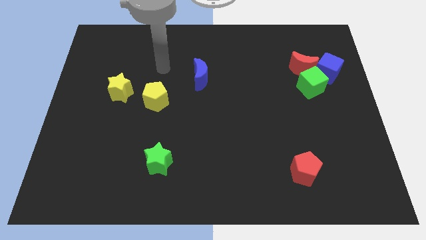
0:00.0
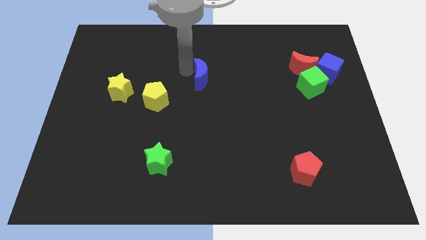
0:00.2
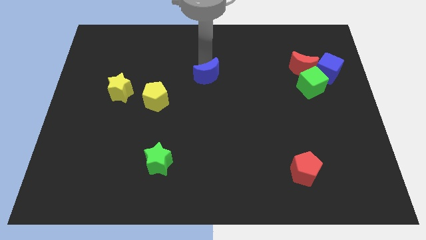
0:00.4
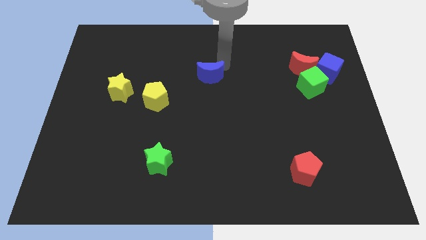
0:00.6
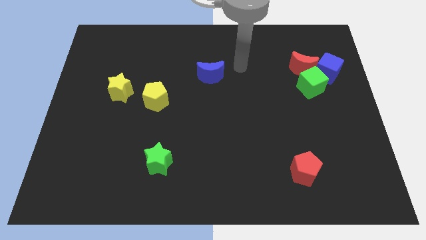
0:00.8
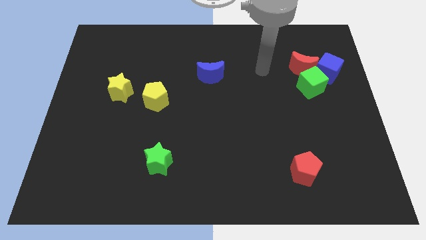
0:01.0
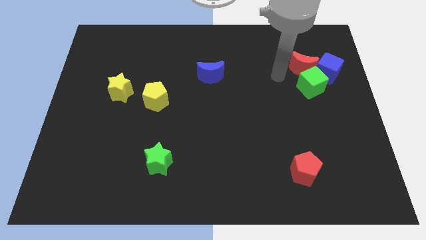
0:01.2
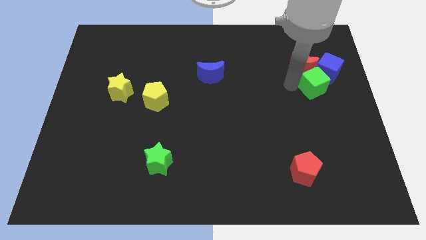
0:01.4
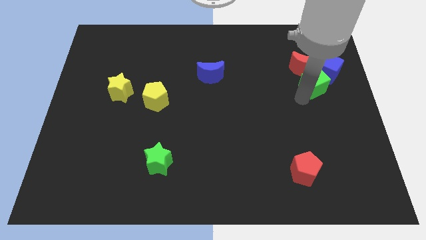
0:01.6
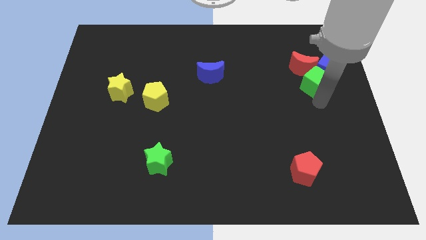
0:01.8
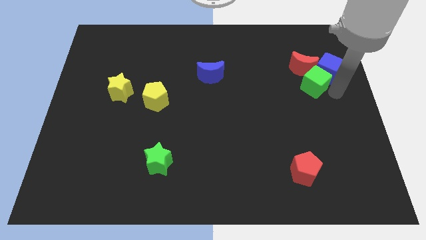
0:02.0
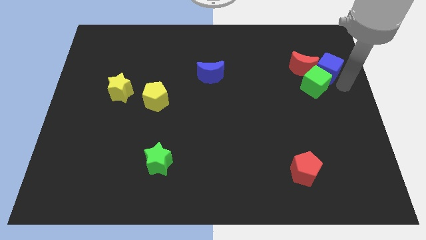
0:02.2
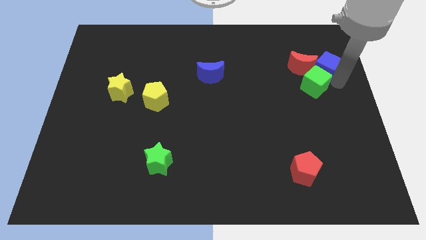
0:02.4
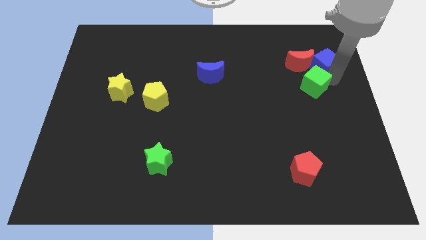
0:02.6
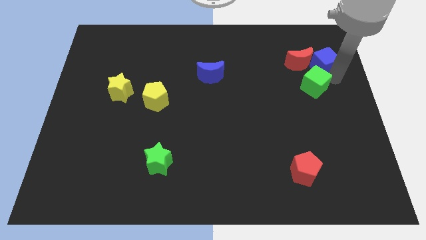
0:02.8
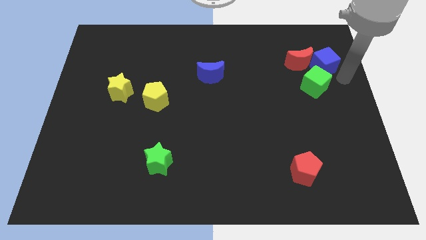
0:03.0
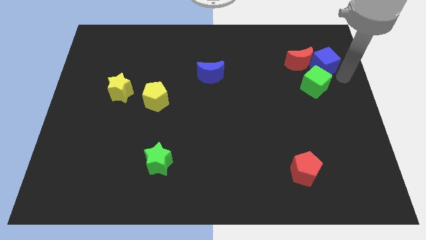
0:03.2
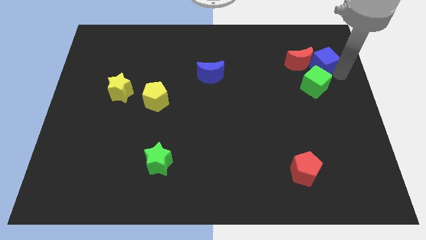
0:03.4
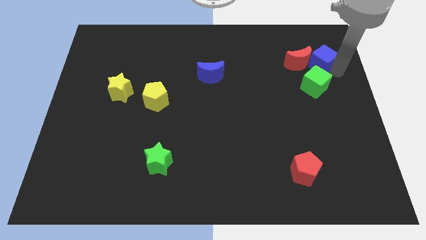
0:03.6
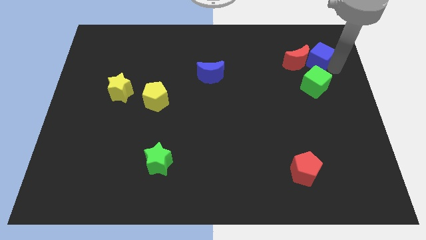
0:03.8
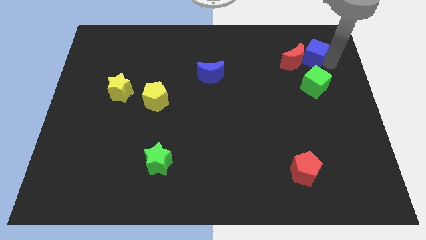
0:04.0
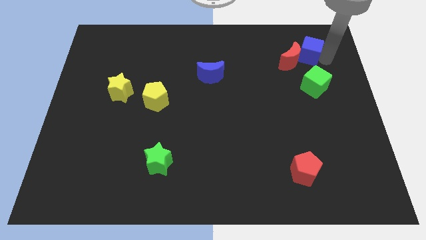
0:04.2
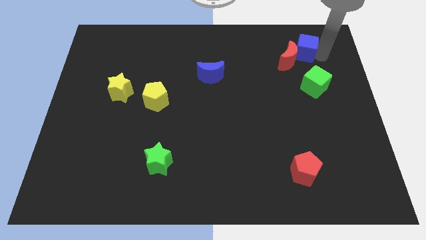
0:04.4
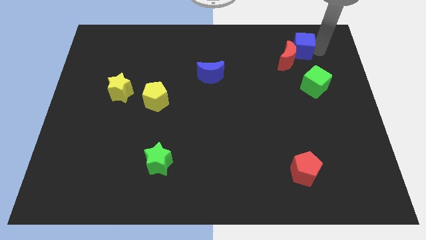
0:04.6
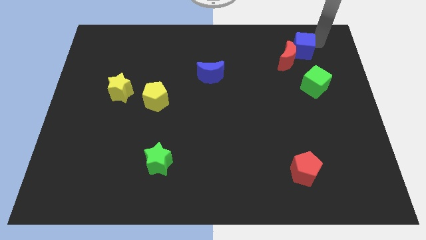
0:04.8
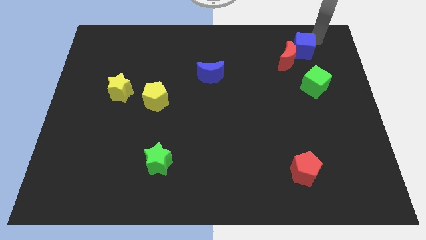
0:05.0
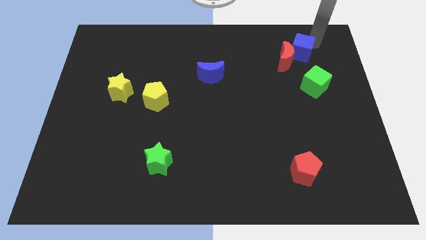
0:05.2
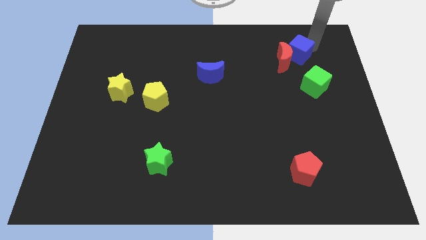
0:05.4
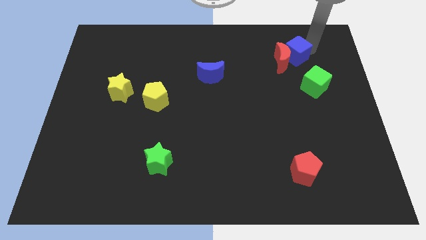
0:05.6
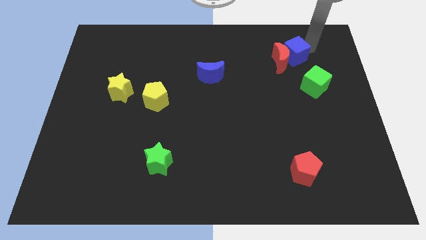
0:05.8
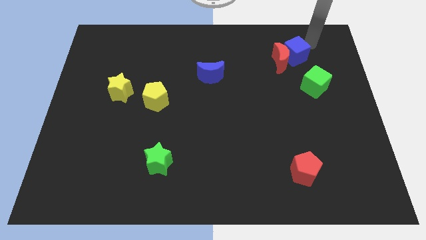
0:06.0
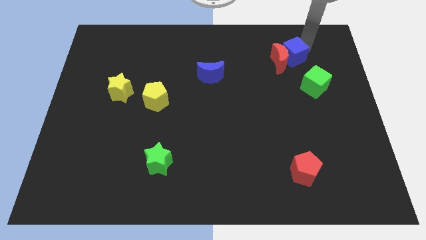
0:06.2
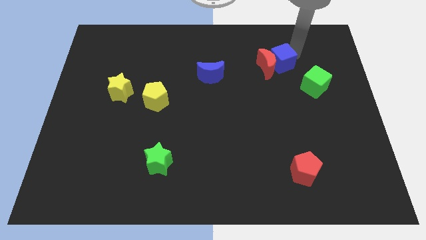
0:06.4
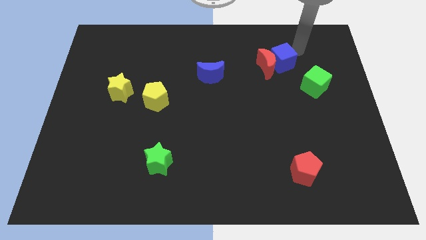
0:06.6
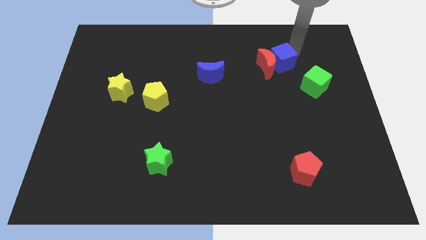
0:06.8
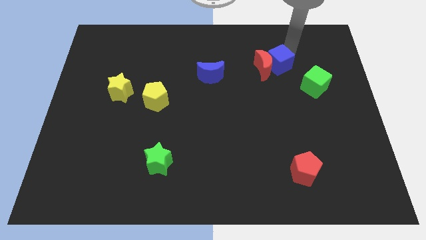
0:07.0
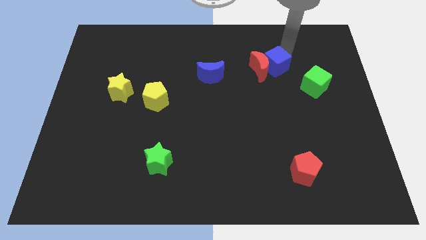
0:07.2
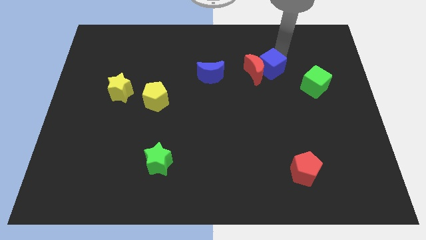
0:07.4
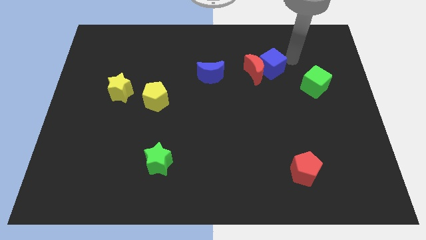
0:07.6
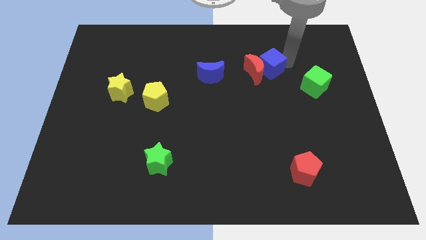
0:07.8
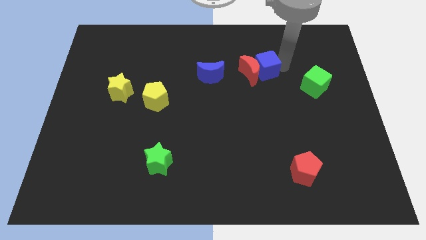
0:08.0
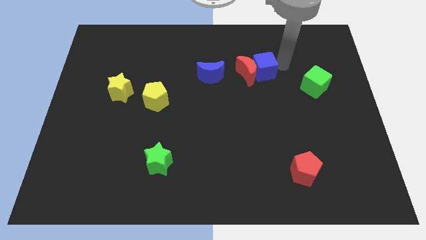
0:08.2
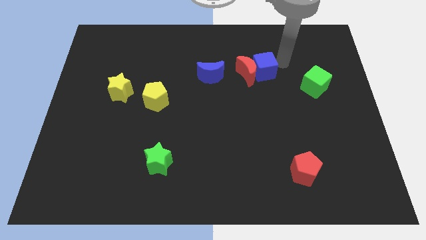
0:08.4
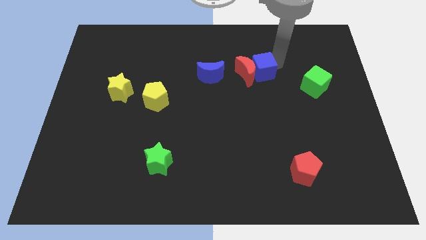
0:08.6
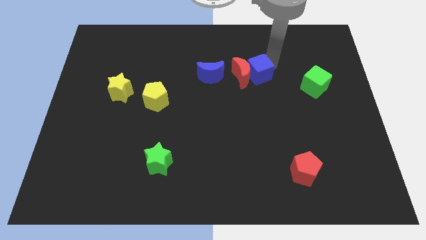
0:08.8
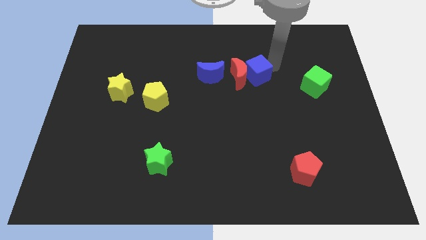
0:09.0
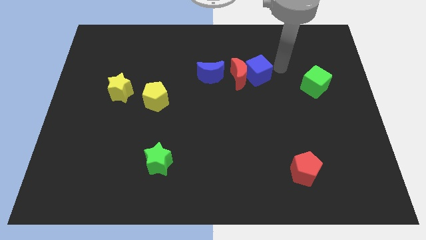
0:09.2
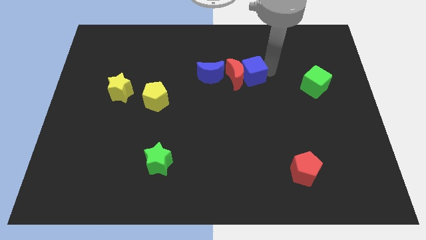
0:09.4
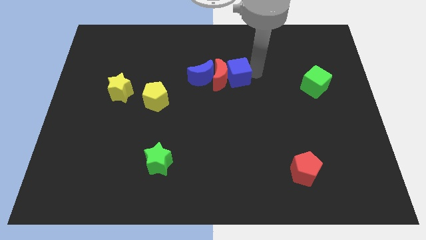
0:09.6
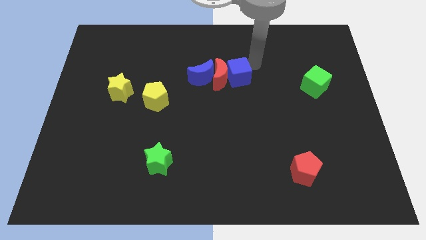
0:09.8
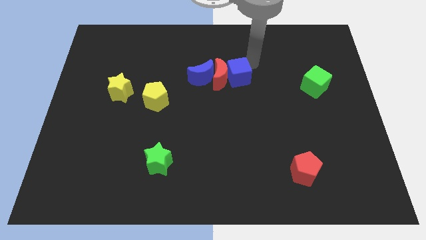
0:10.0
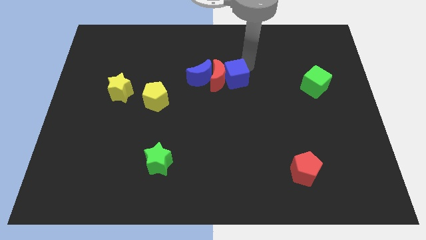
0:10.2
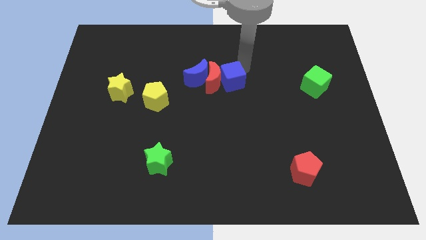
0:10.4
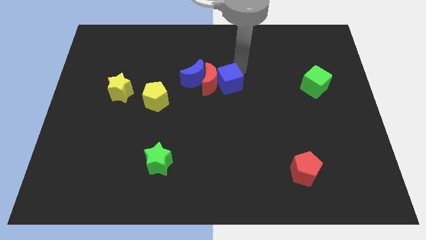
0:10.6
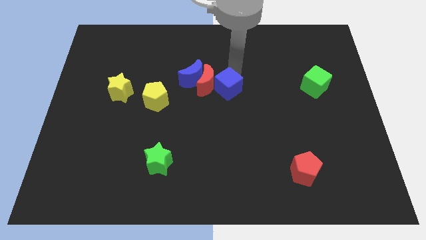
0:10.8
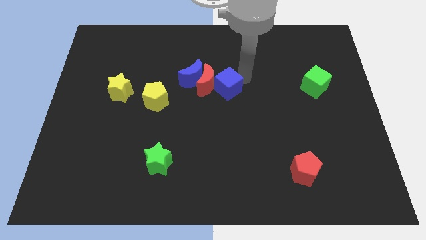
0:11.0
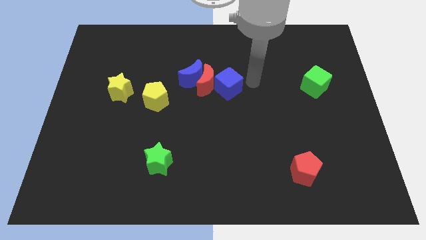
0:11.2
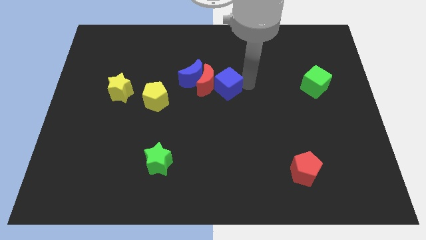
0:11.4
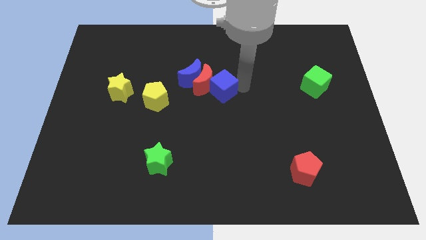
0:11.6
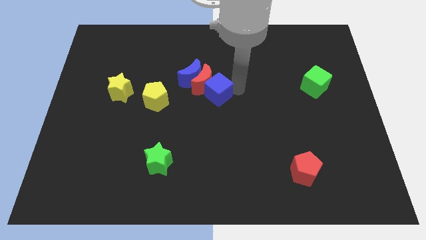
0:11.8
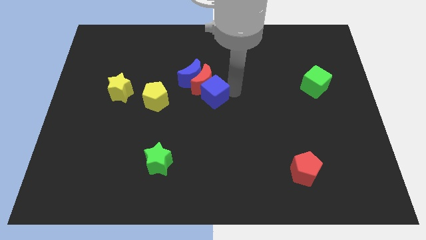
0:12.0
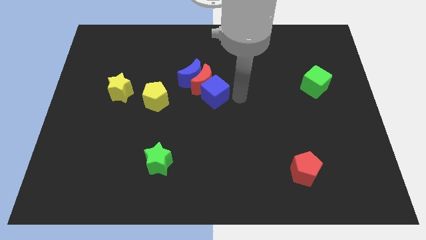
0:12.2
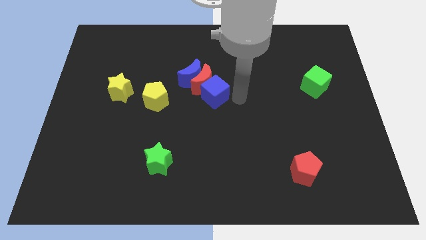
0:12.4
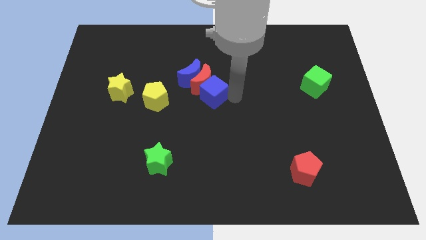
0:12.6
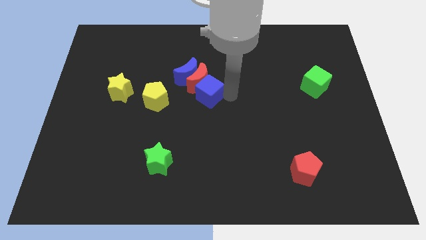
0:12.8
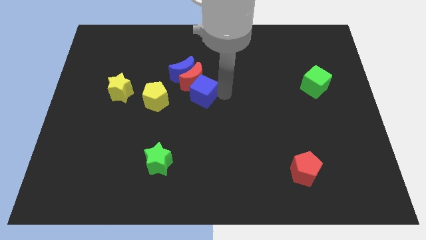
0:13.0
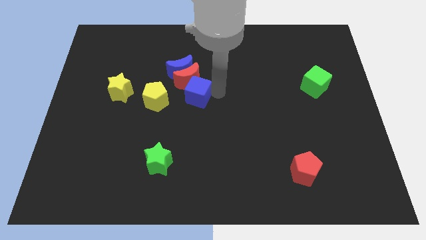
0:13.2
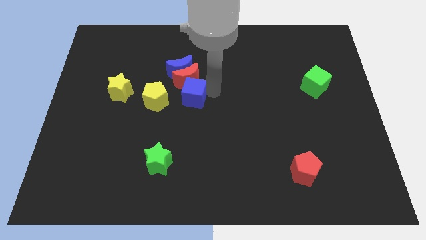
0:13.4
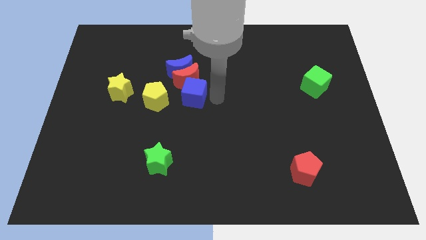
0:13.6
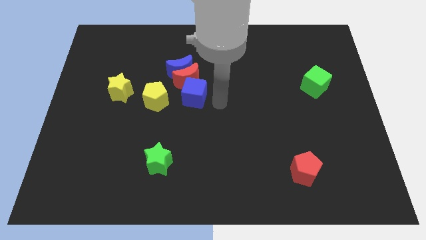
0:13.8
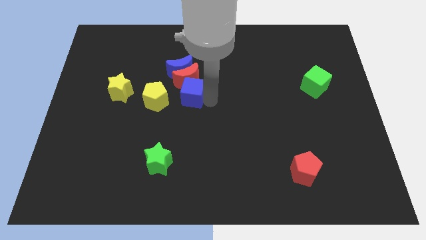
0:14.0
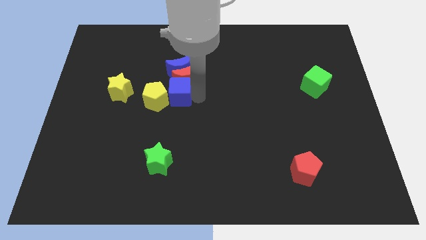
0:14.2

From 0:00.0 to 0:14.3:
put the blue cube to the yellow pentagon
